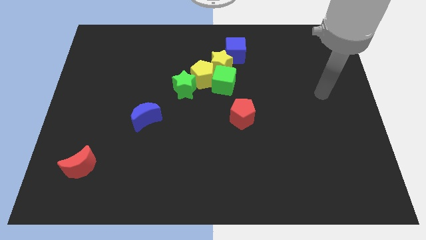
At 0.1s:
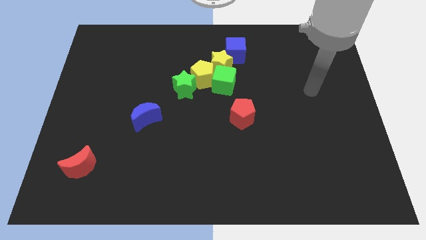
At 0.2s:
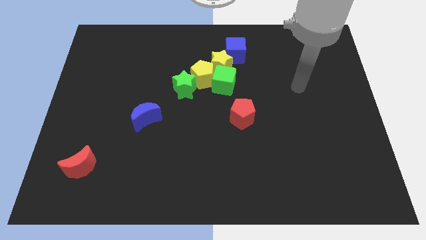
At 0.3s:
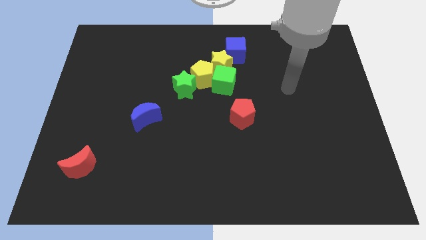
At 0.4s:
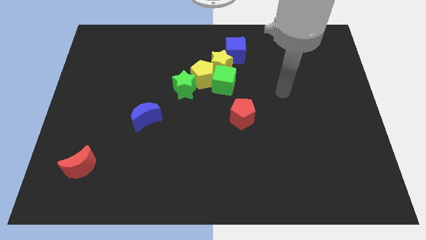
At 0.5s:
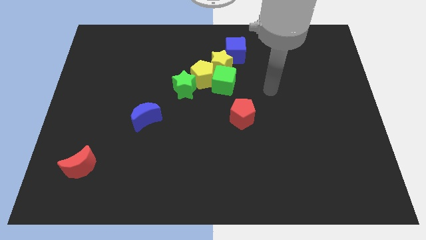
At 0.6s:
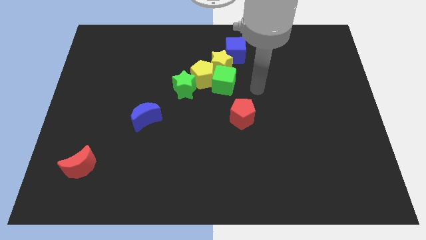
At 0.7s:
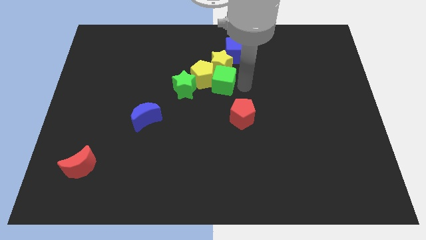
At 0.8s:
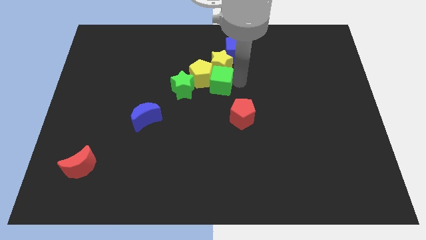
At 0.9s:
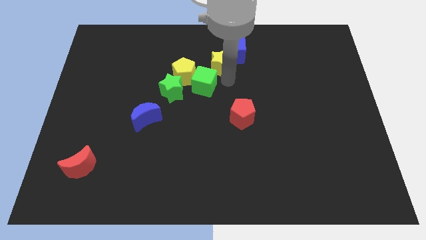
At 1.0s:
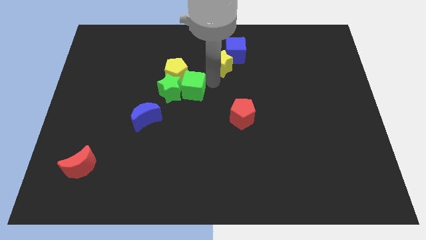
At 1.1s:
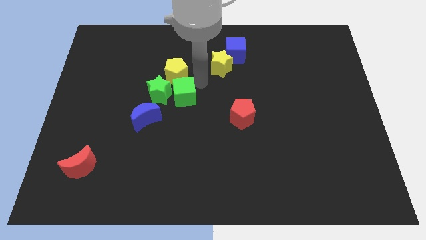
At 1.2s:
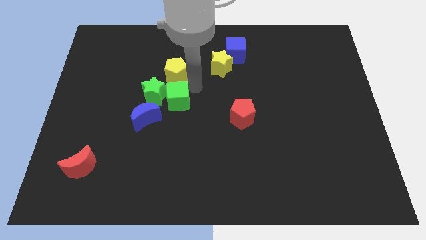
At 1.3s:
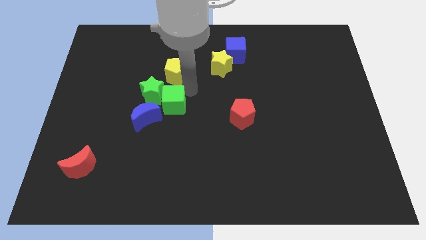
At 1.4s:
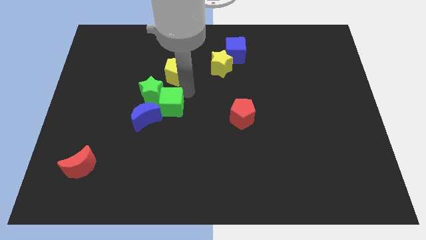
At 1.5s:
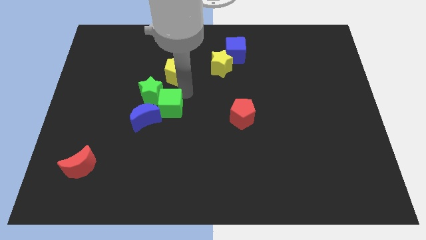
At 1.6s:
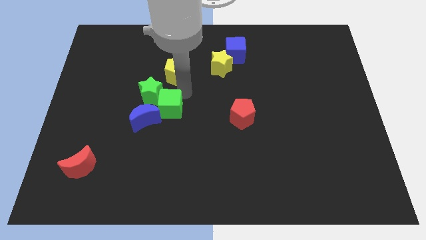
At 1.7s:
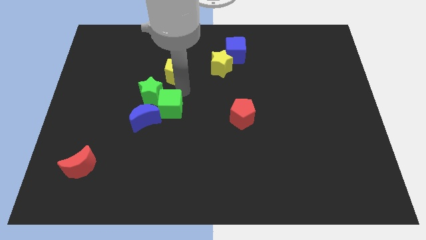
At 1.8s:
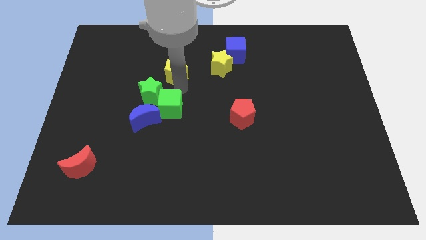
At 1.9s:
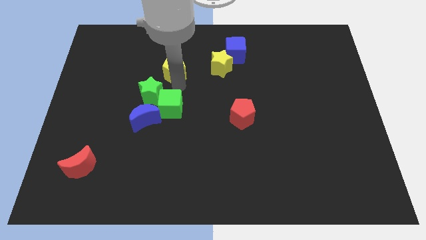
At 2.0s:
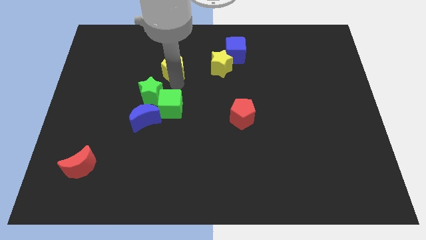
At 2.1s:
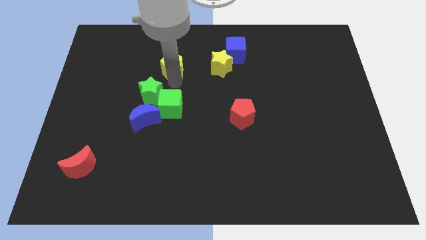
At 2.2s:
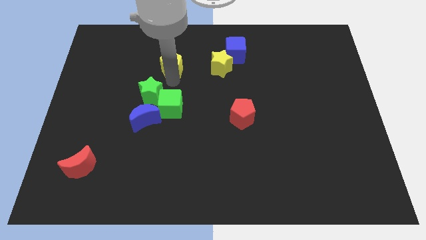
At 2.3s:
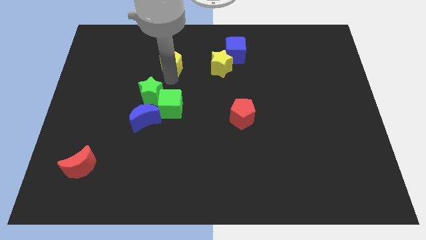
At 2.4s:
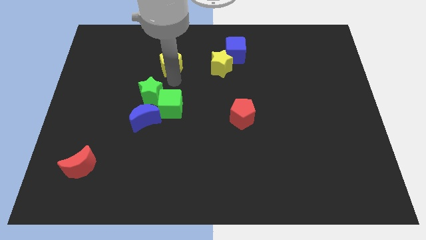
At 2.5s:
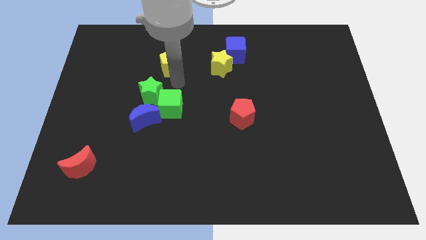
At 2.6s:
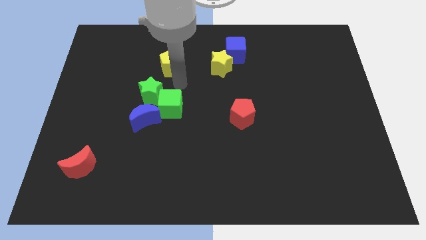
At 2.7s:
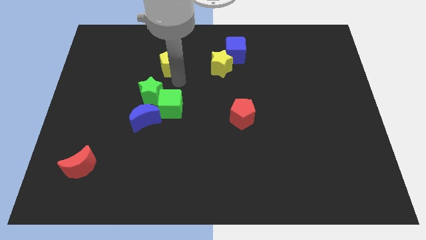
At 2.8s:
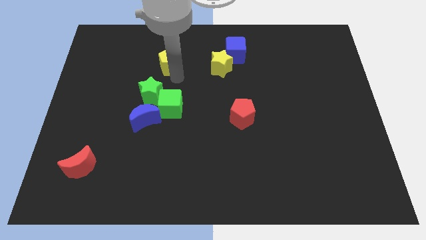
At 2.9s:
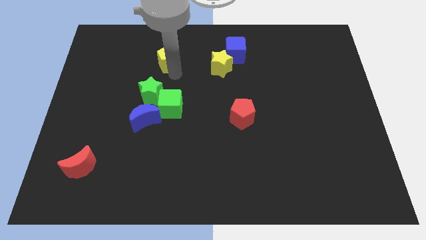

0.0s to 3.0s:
separate the yellow pentagon from the group of blocks

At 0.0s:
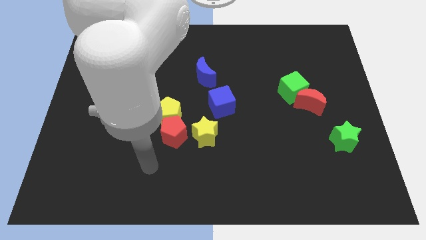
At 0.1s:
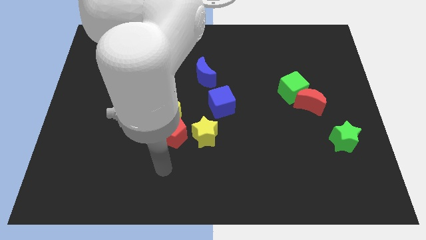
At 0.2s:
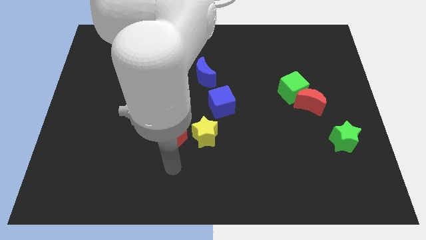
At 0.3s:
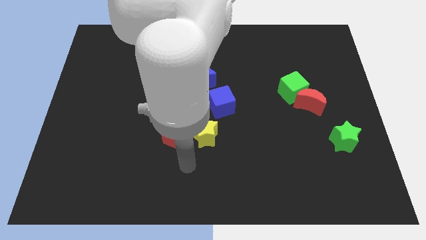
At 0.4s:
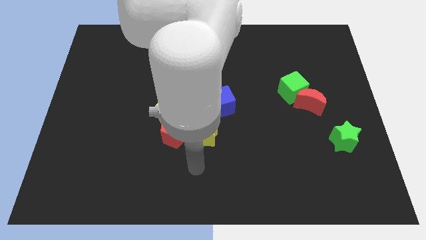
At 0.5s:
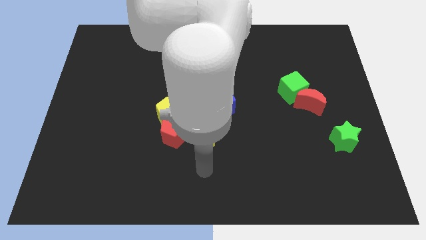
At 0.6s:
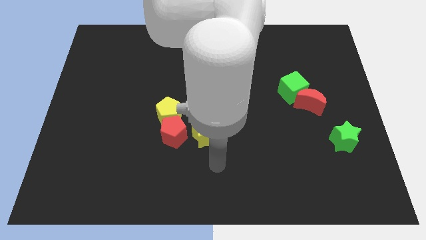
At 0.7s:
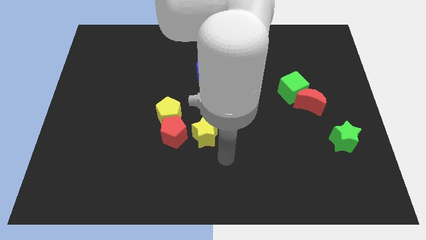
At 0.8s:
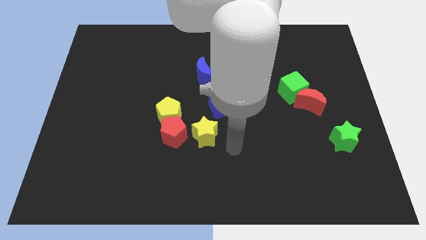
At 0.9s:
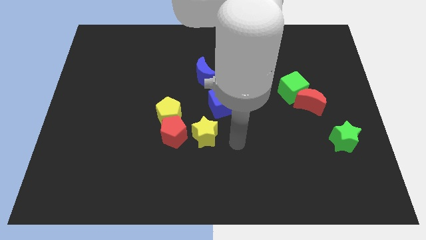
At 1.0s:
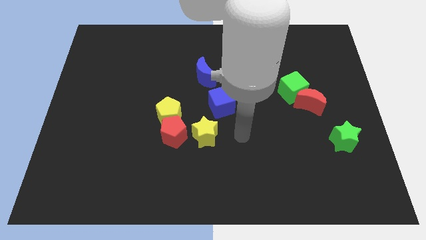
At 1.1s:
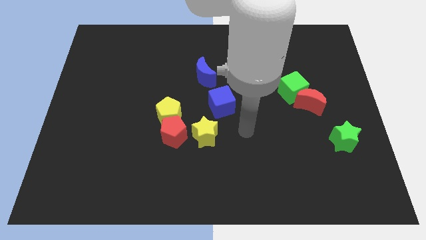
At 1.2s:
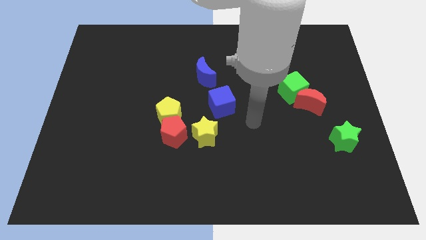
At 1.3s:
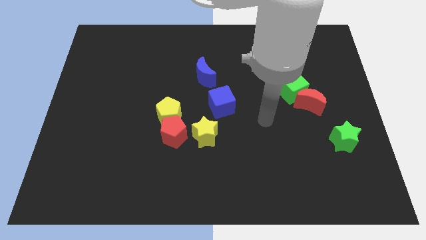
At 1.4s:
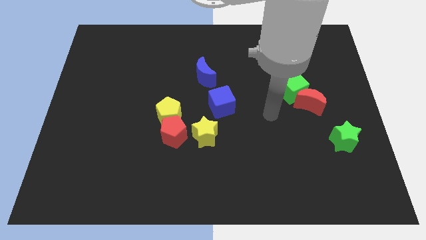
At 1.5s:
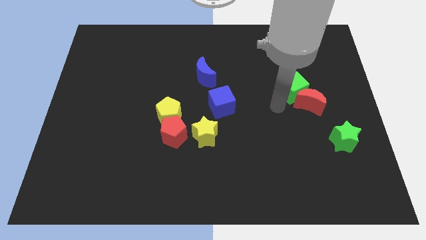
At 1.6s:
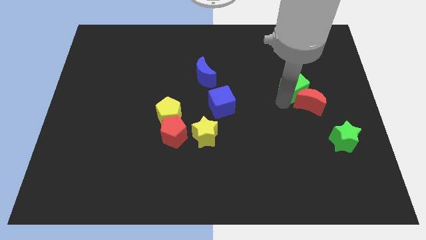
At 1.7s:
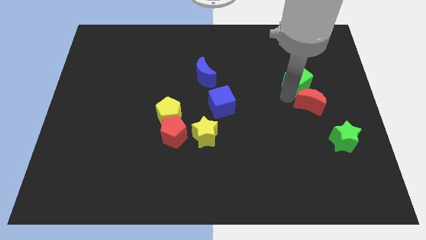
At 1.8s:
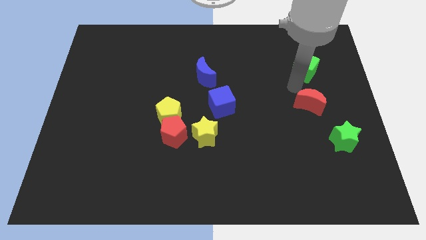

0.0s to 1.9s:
move the red moon away from the green cube

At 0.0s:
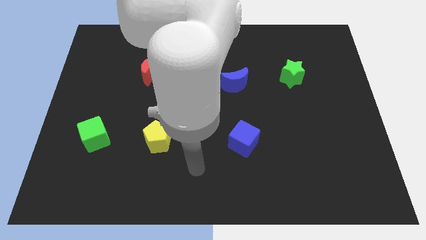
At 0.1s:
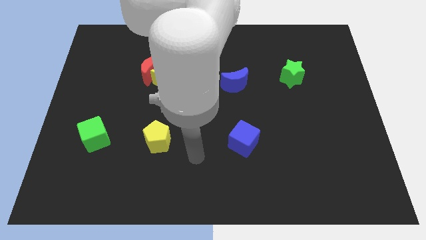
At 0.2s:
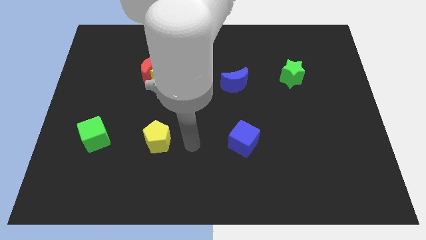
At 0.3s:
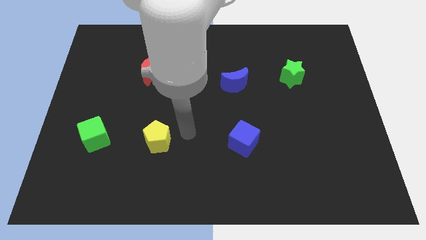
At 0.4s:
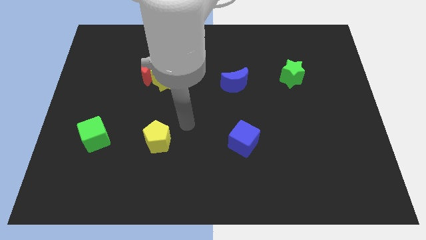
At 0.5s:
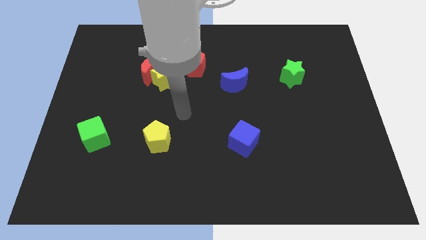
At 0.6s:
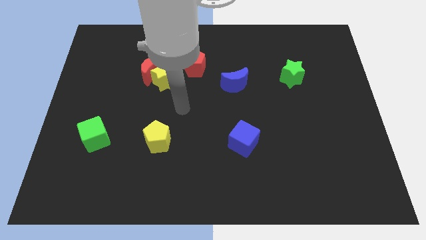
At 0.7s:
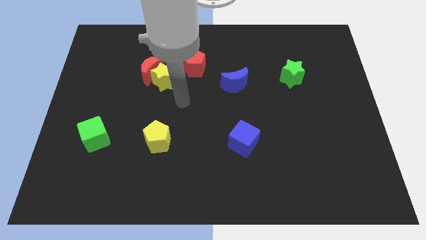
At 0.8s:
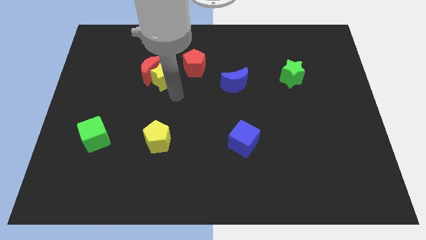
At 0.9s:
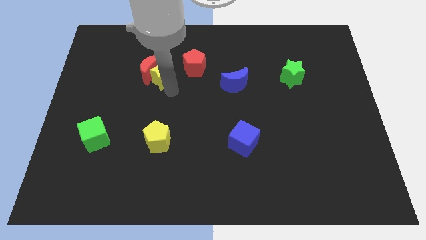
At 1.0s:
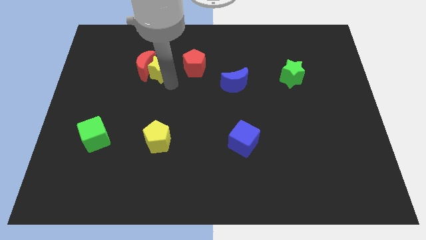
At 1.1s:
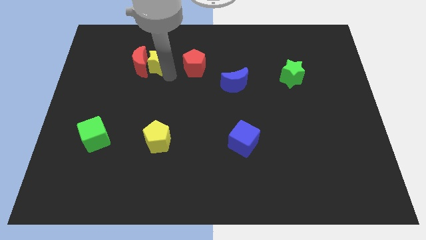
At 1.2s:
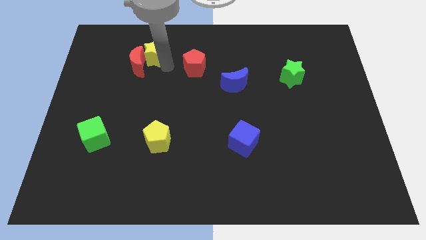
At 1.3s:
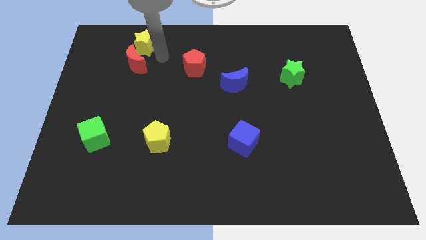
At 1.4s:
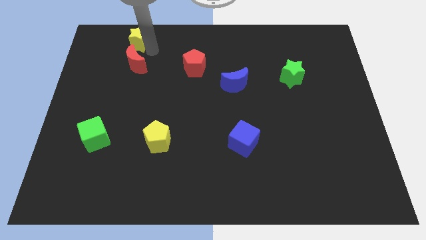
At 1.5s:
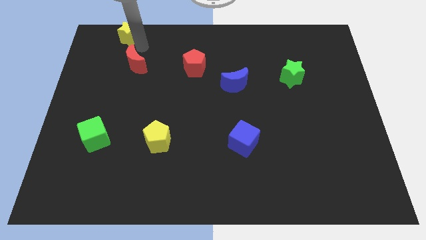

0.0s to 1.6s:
pull the red moon apart from the yellow star

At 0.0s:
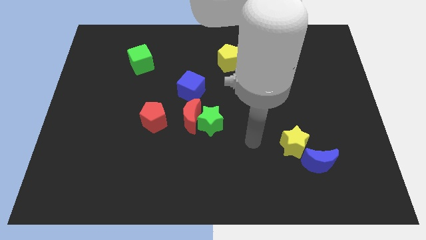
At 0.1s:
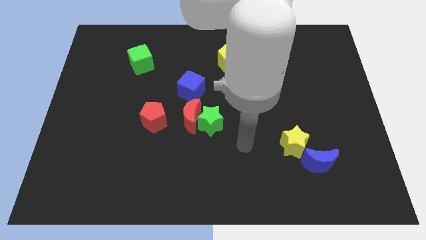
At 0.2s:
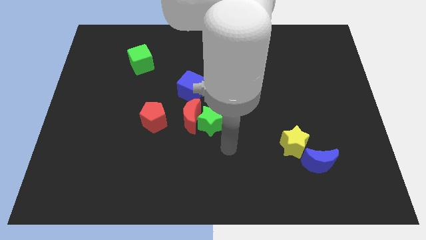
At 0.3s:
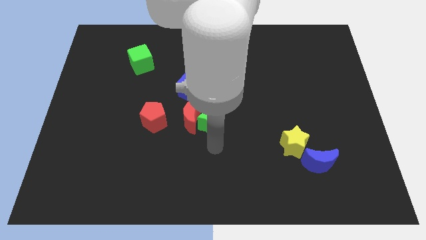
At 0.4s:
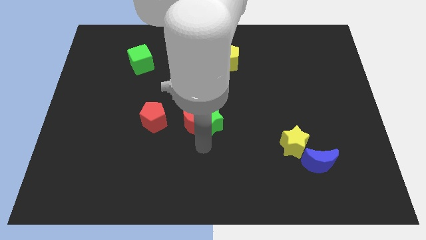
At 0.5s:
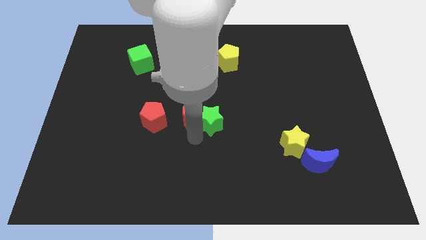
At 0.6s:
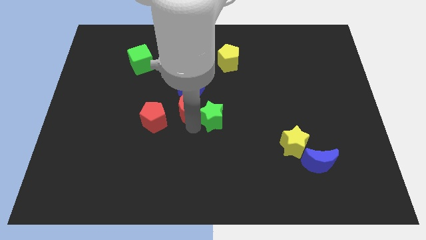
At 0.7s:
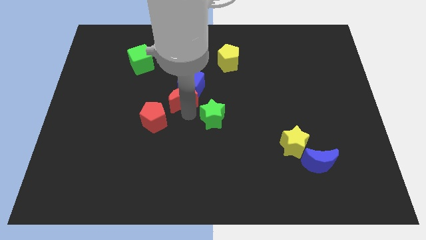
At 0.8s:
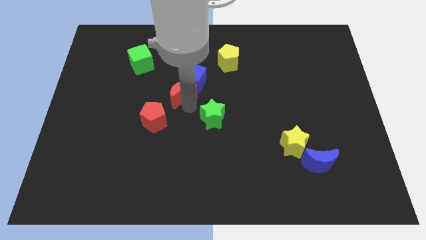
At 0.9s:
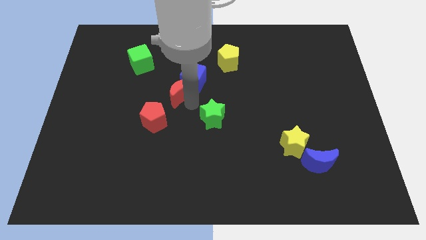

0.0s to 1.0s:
move the green star away from the red moon

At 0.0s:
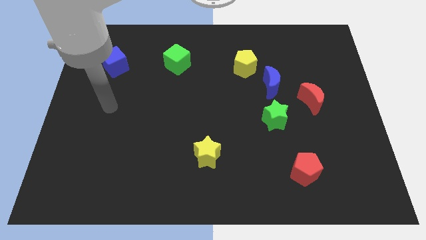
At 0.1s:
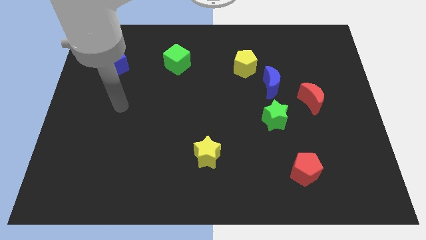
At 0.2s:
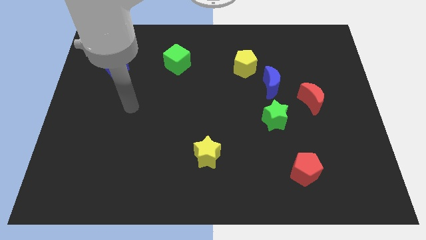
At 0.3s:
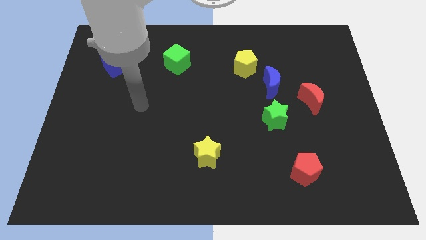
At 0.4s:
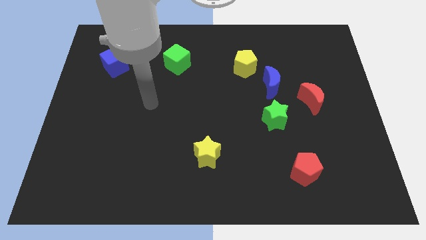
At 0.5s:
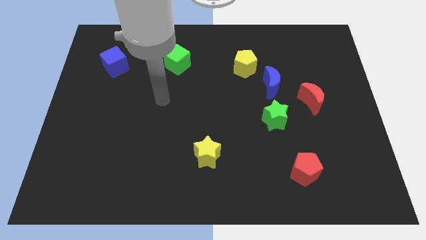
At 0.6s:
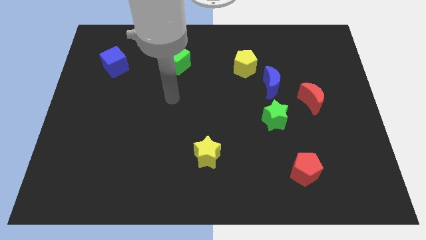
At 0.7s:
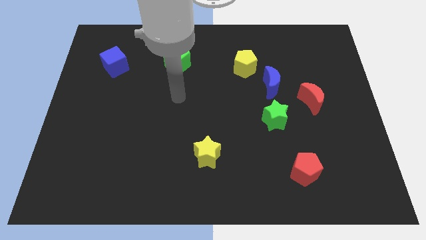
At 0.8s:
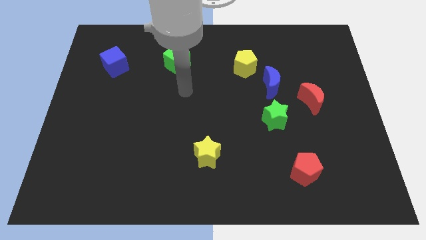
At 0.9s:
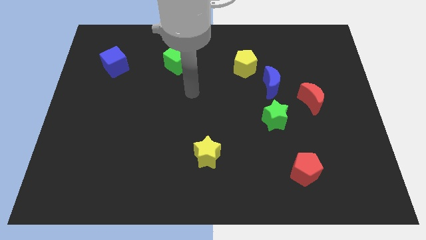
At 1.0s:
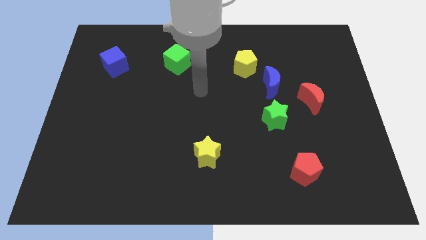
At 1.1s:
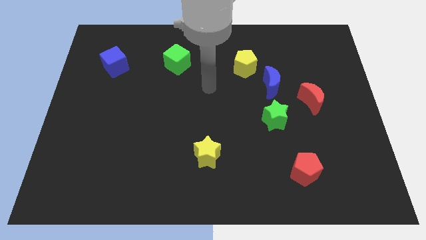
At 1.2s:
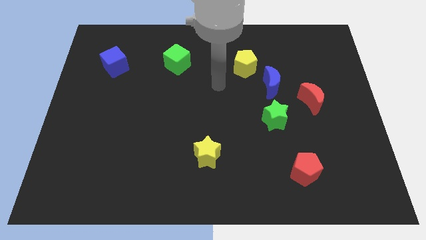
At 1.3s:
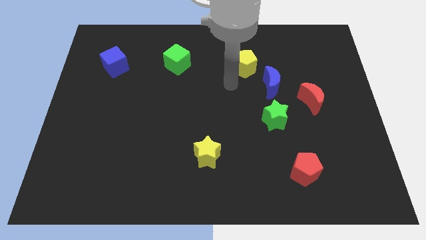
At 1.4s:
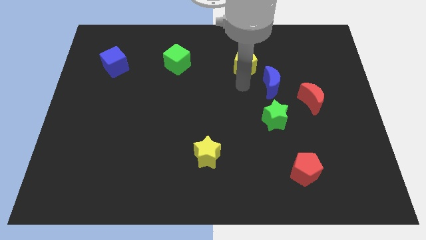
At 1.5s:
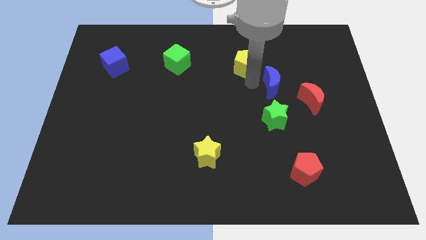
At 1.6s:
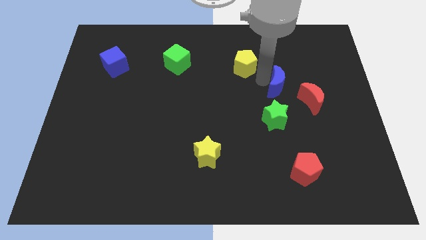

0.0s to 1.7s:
move the yellow pentagon away from the blue moon

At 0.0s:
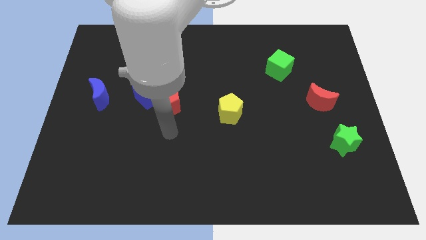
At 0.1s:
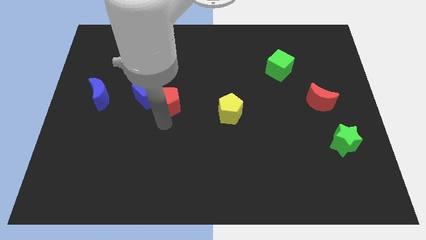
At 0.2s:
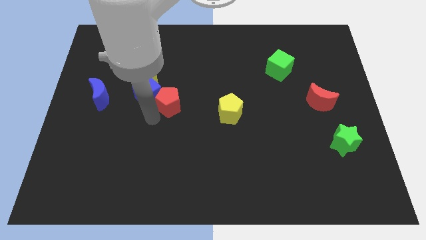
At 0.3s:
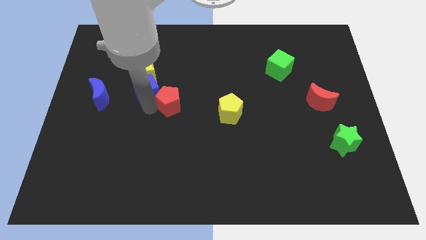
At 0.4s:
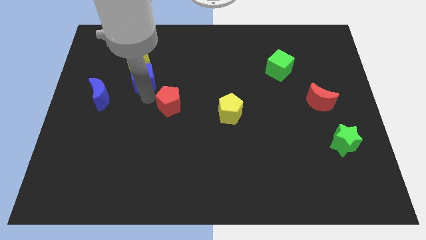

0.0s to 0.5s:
separate the red pentagon from the blue cube
